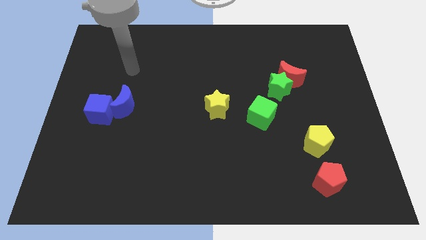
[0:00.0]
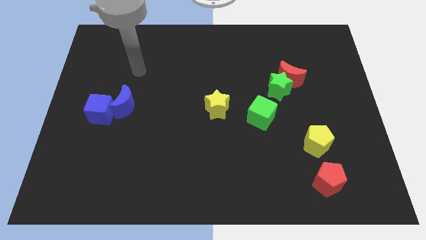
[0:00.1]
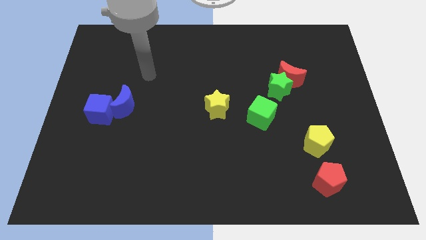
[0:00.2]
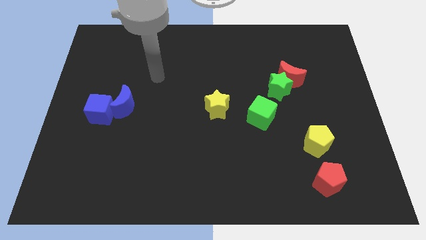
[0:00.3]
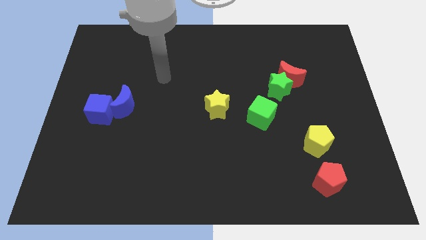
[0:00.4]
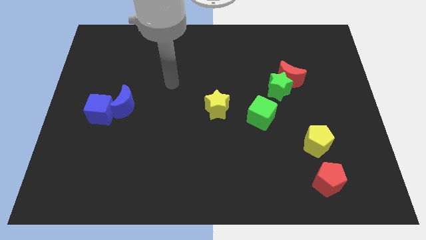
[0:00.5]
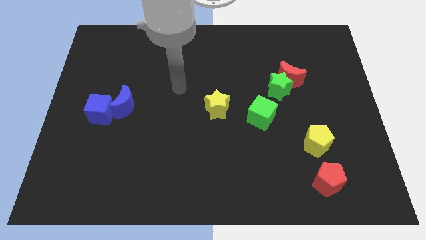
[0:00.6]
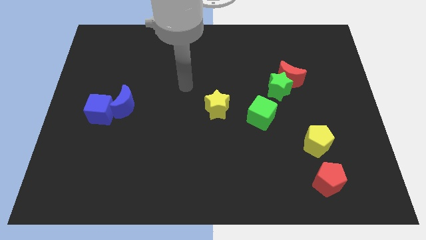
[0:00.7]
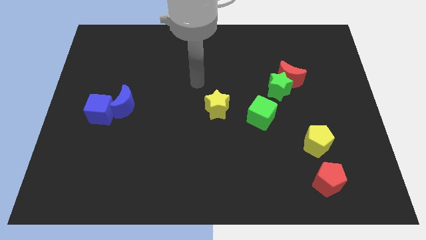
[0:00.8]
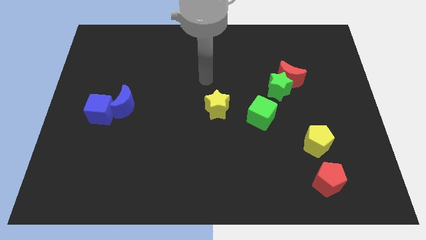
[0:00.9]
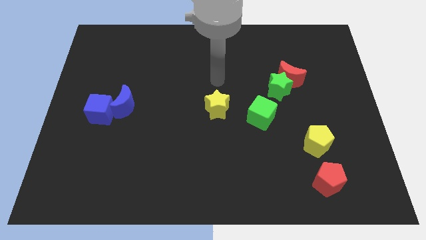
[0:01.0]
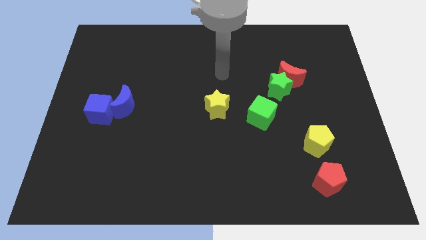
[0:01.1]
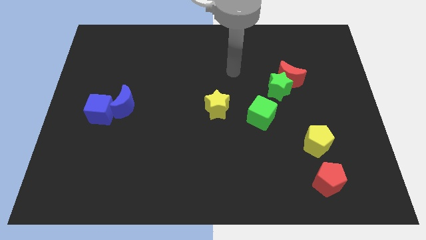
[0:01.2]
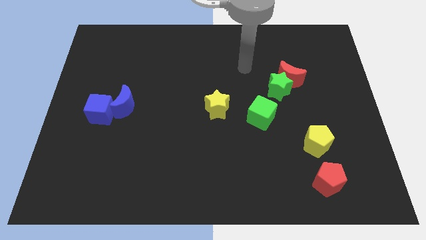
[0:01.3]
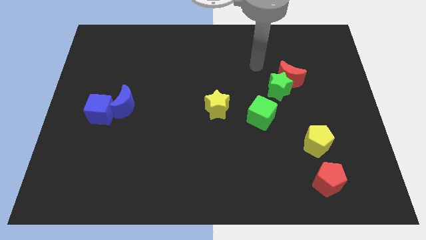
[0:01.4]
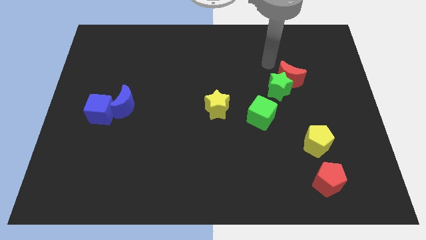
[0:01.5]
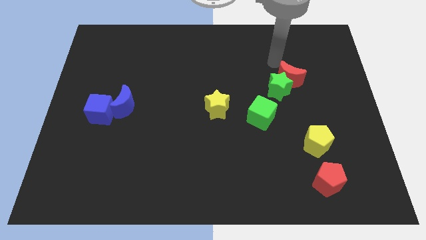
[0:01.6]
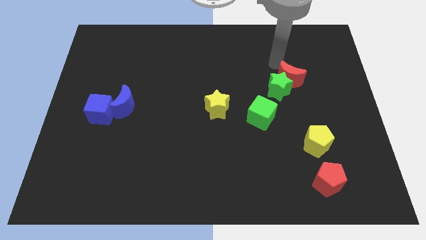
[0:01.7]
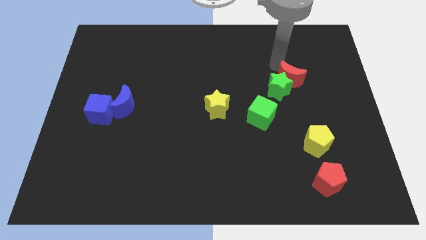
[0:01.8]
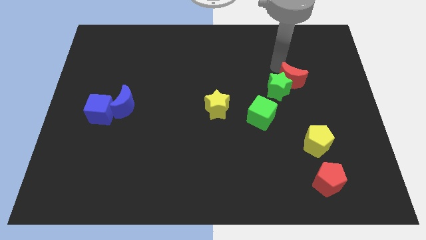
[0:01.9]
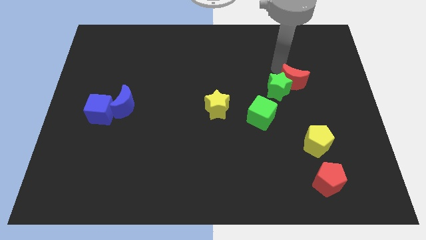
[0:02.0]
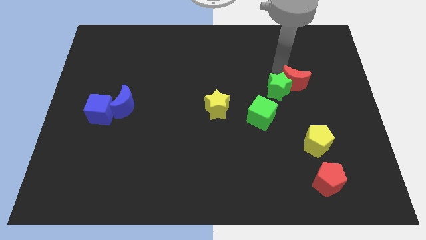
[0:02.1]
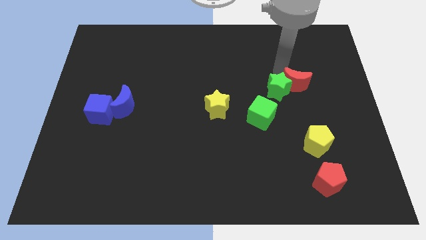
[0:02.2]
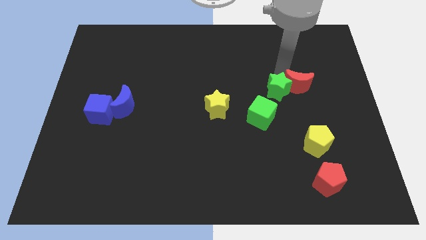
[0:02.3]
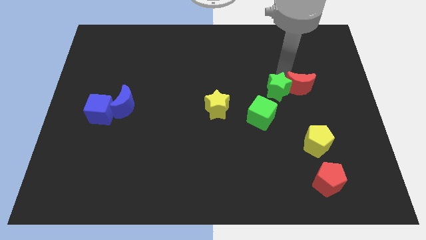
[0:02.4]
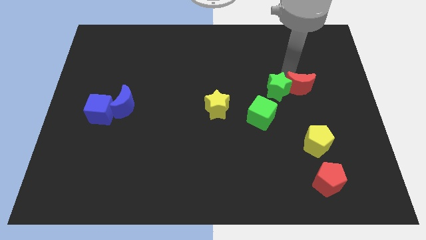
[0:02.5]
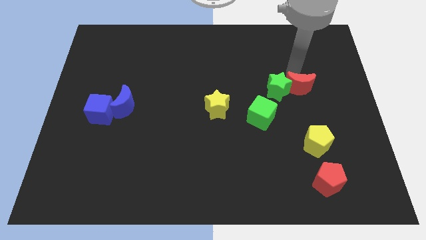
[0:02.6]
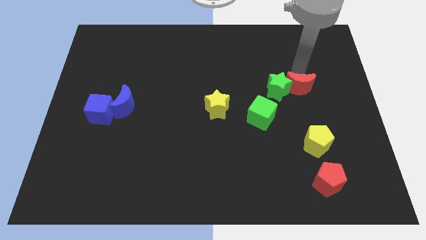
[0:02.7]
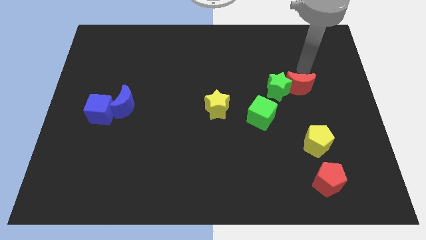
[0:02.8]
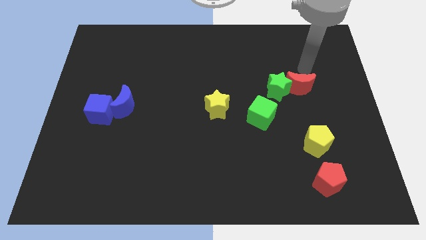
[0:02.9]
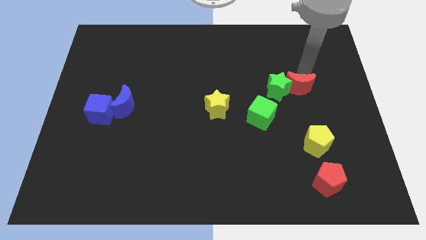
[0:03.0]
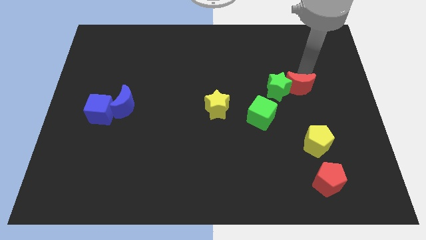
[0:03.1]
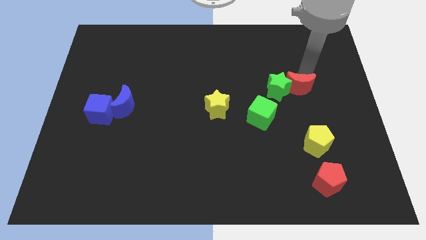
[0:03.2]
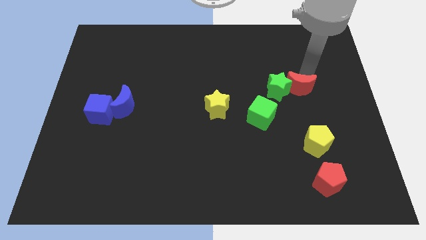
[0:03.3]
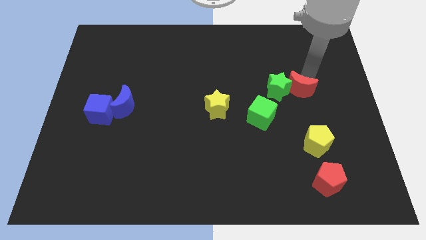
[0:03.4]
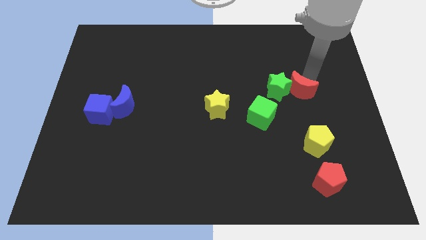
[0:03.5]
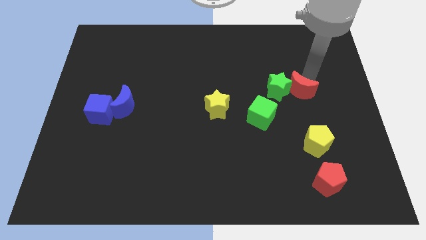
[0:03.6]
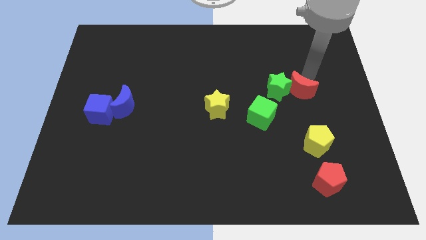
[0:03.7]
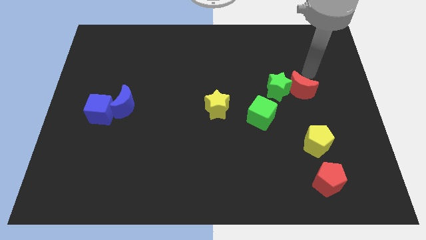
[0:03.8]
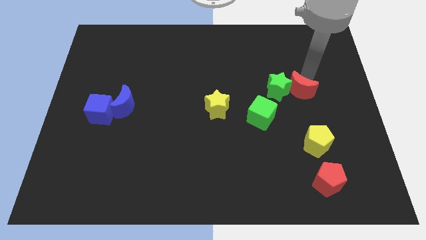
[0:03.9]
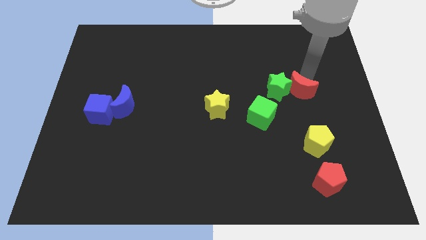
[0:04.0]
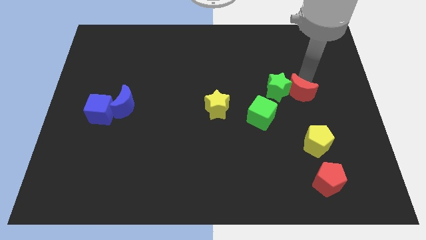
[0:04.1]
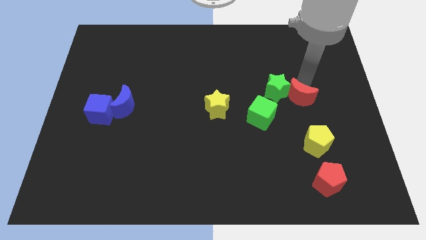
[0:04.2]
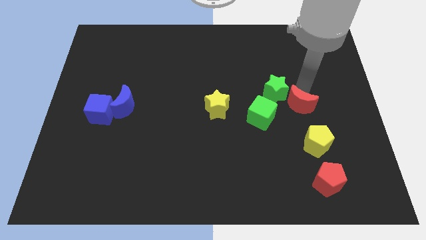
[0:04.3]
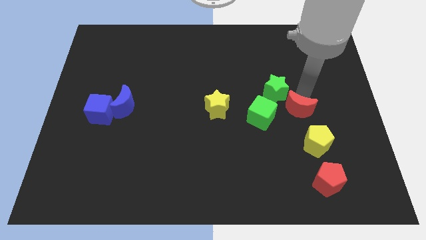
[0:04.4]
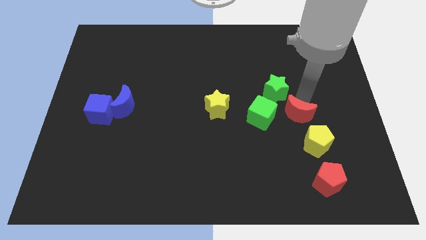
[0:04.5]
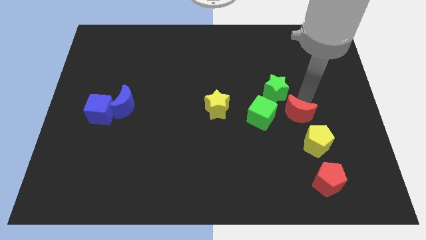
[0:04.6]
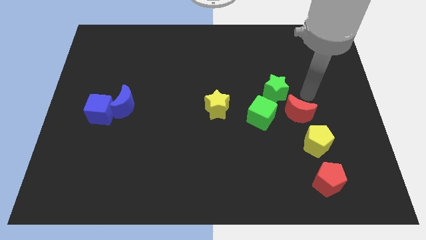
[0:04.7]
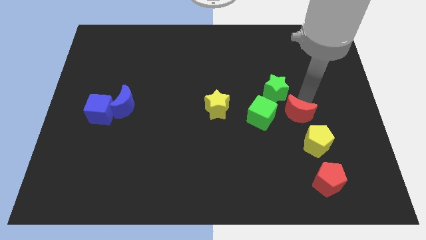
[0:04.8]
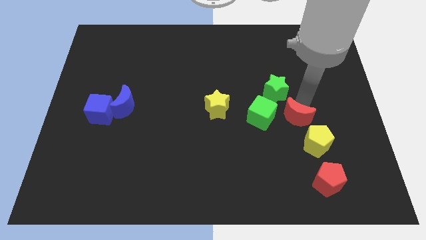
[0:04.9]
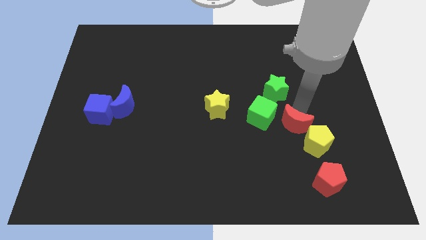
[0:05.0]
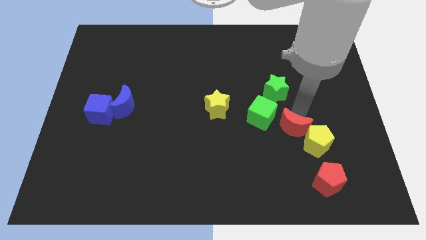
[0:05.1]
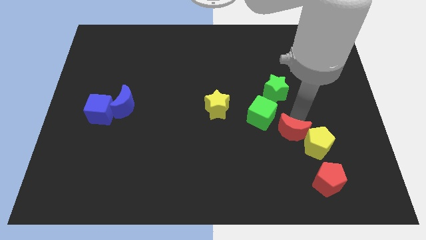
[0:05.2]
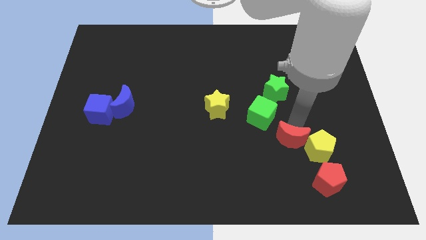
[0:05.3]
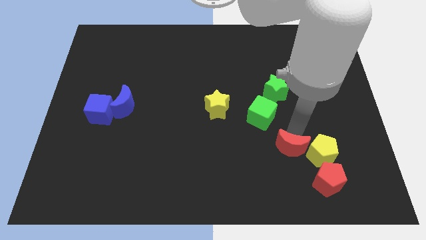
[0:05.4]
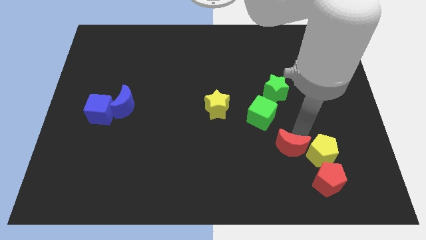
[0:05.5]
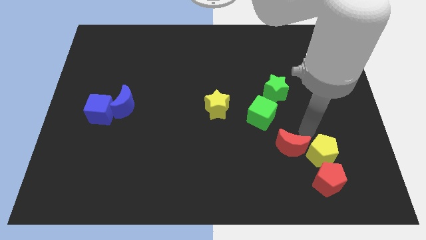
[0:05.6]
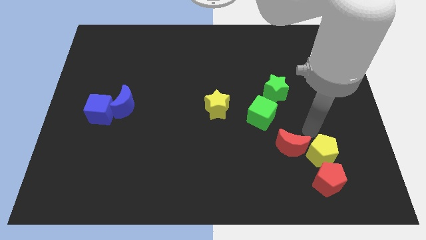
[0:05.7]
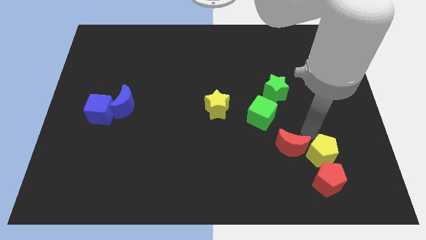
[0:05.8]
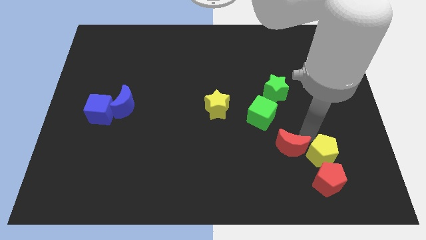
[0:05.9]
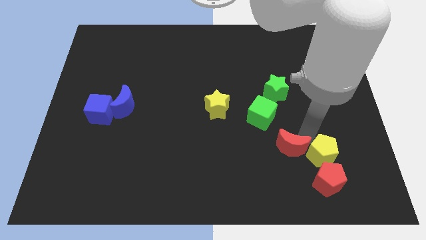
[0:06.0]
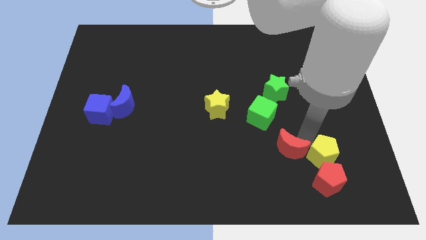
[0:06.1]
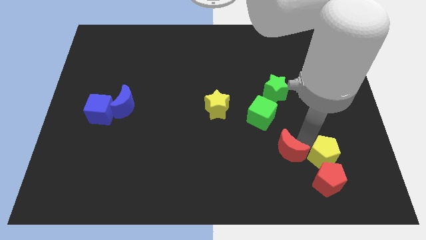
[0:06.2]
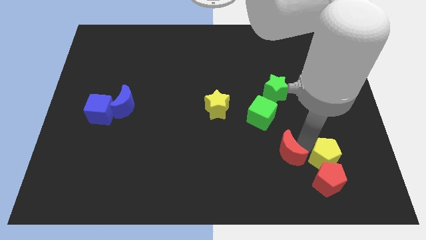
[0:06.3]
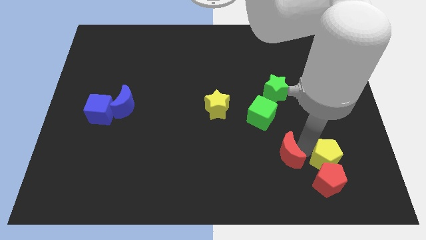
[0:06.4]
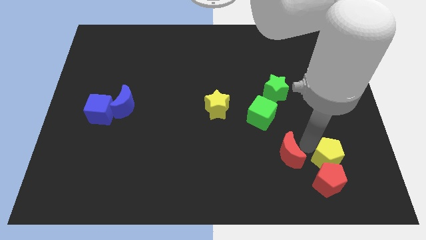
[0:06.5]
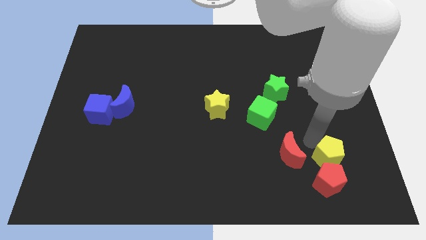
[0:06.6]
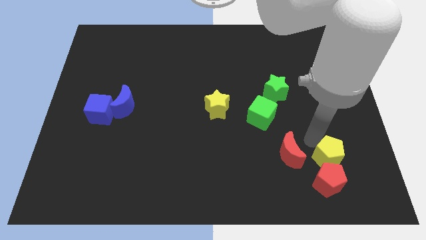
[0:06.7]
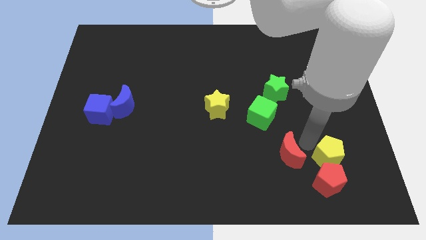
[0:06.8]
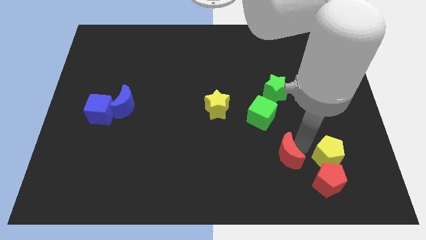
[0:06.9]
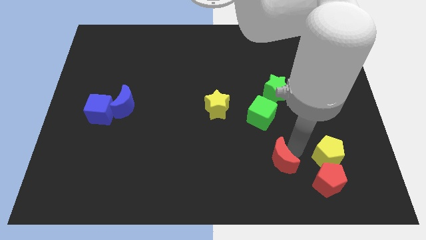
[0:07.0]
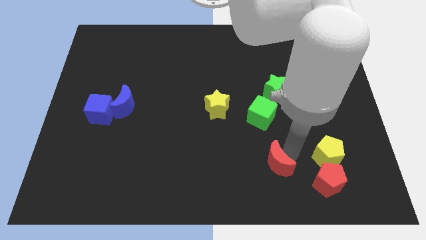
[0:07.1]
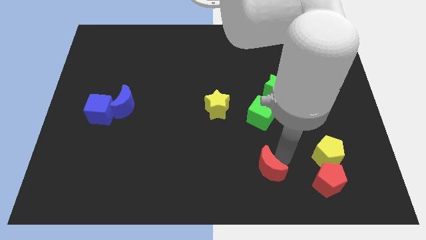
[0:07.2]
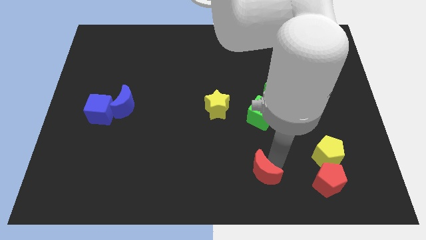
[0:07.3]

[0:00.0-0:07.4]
slide the red moon to the bottom side
